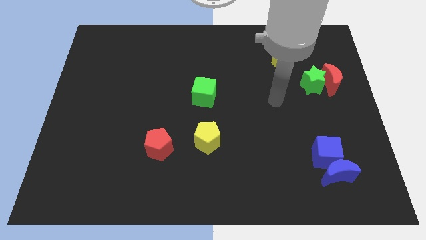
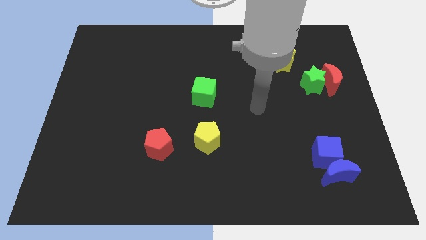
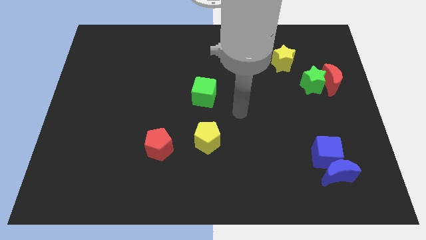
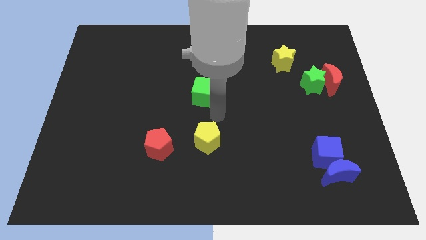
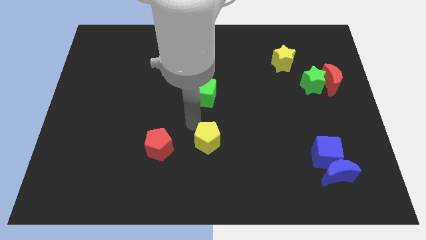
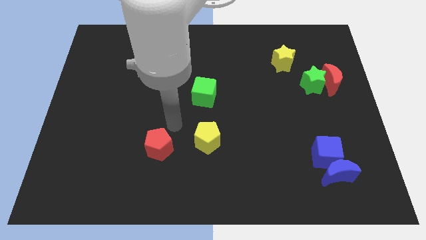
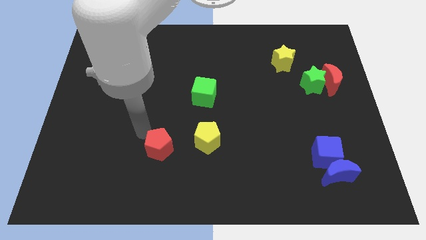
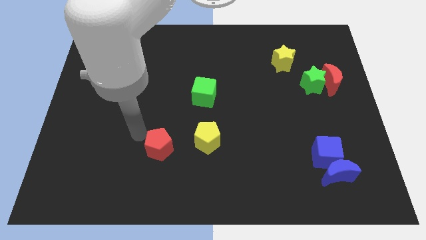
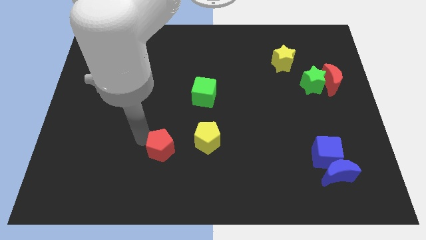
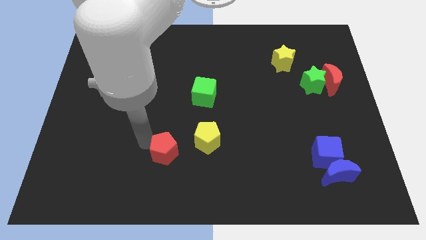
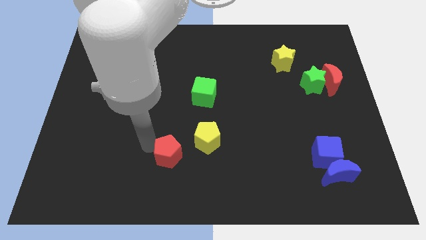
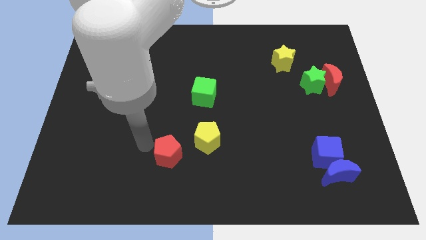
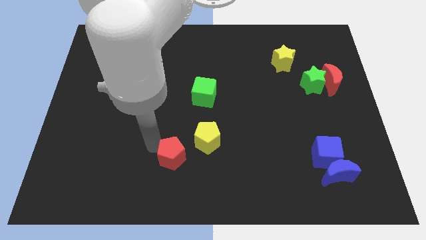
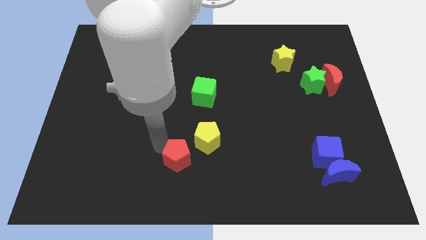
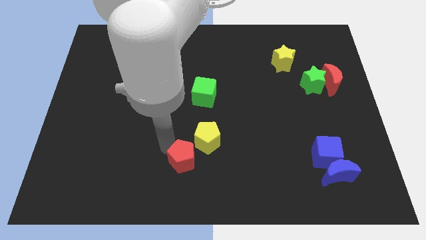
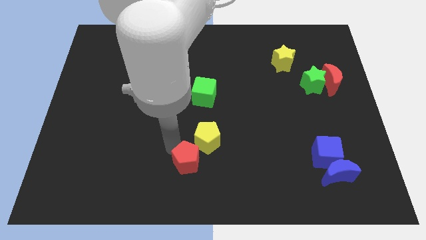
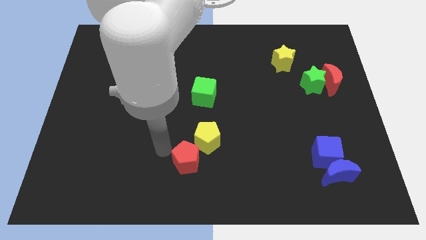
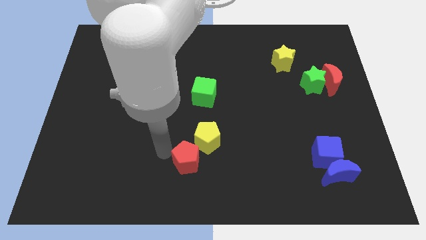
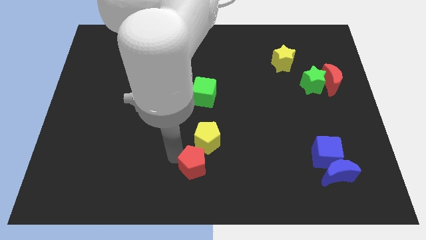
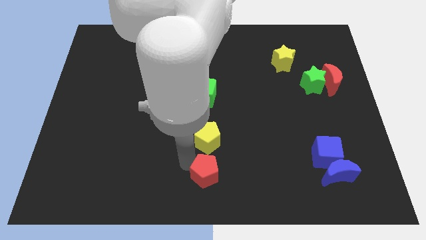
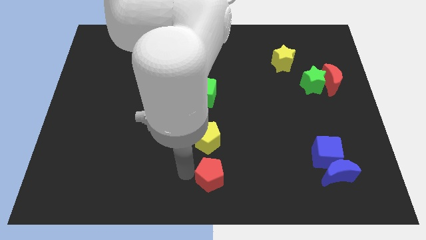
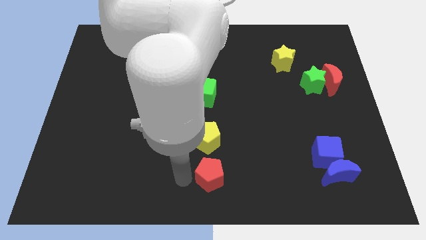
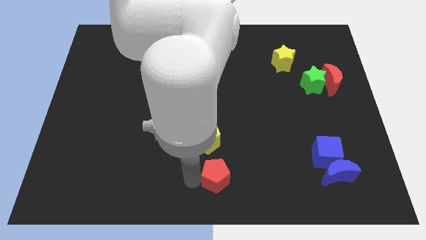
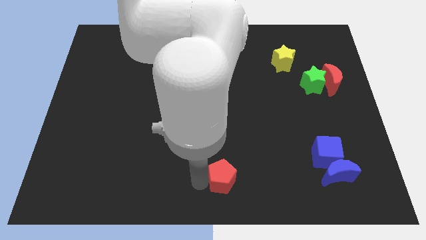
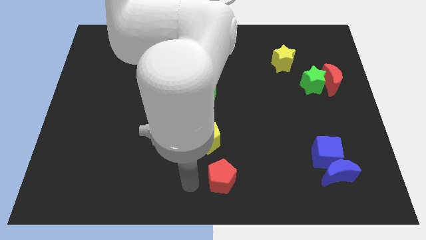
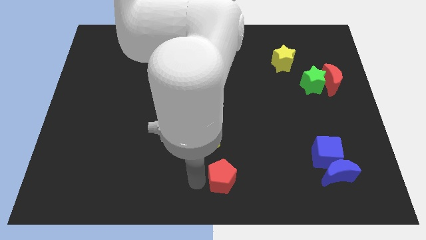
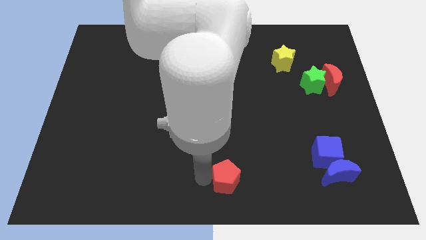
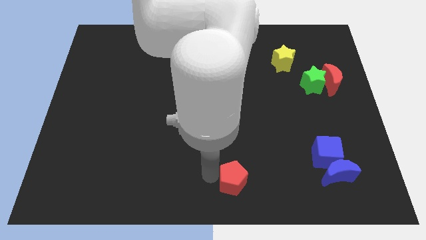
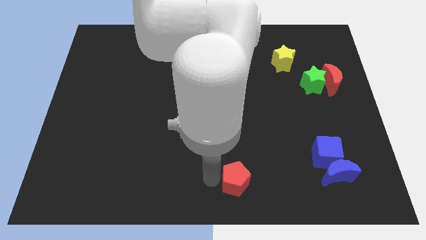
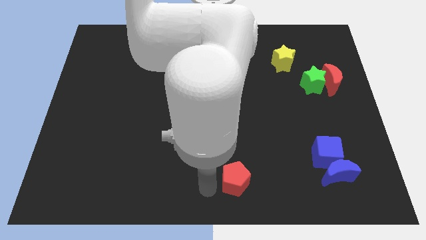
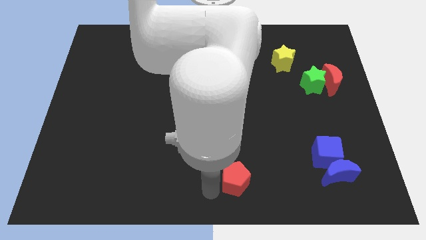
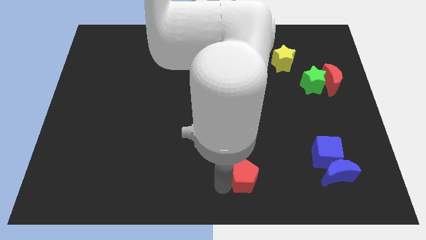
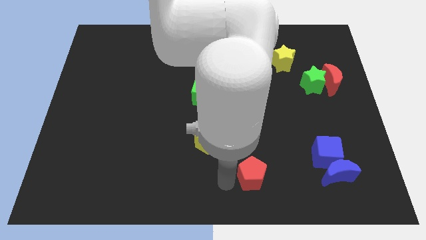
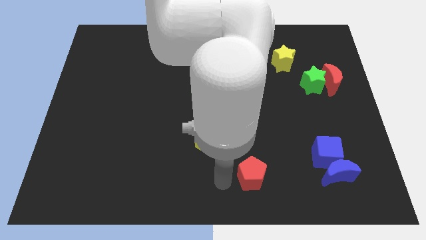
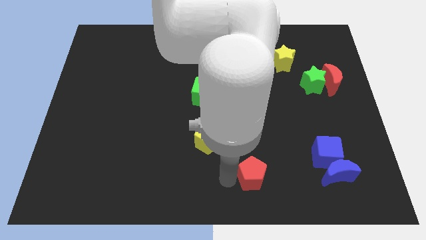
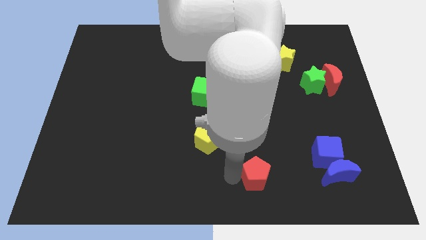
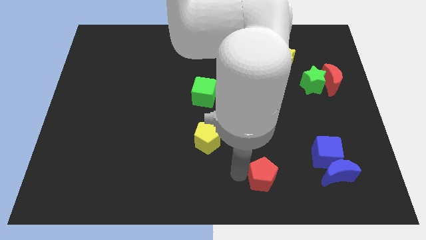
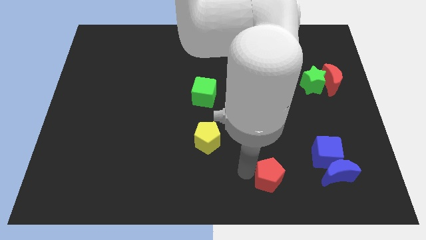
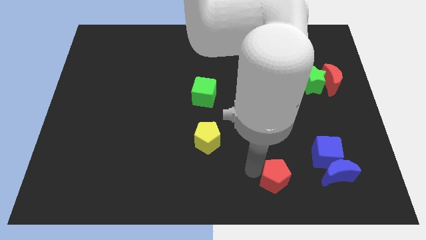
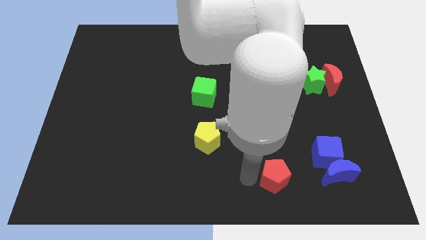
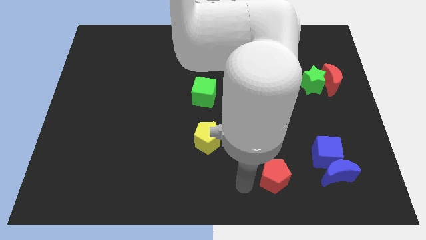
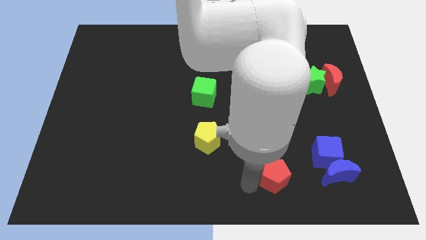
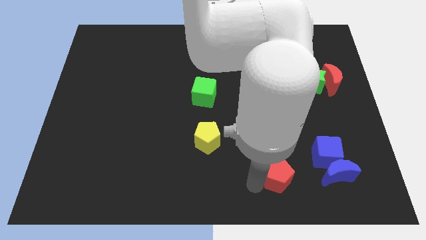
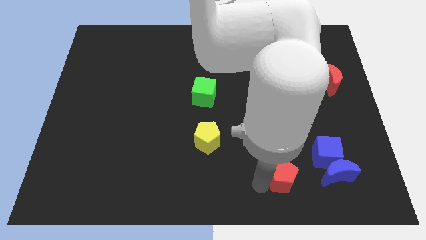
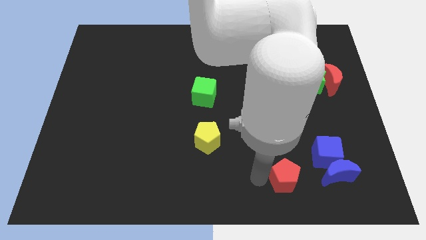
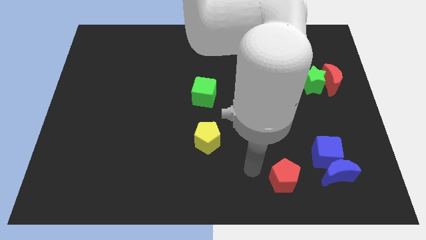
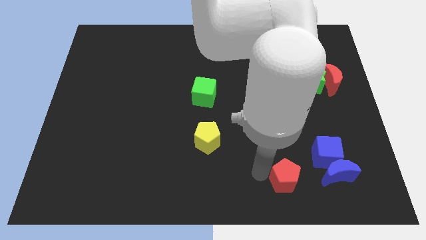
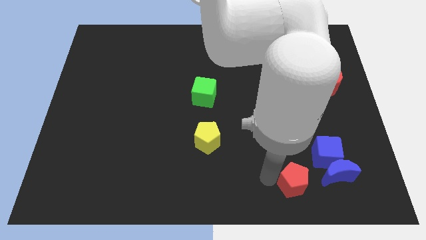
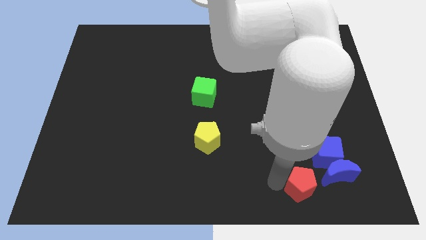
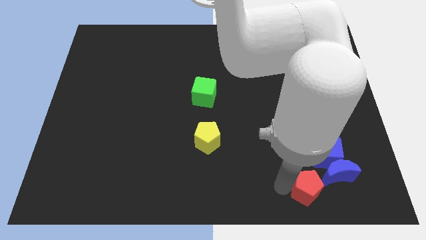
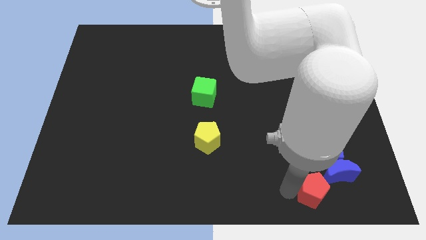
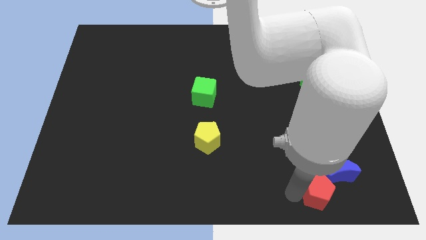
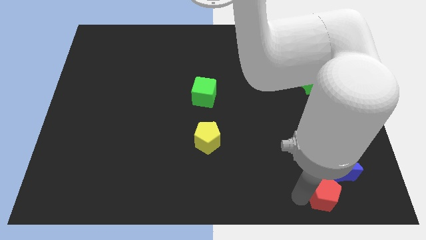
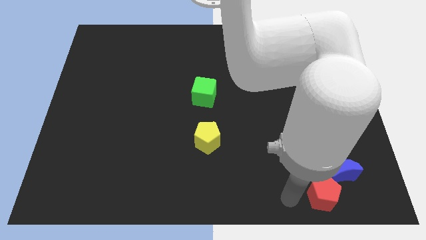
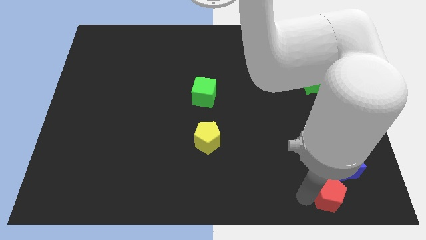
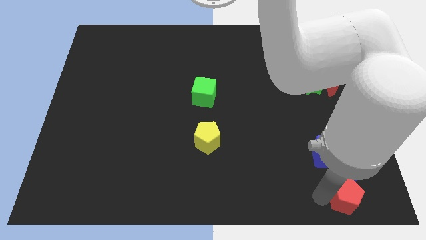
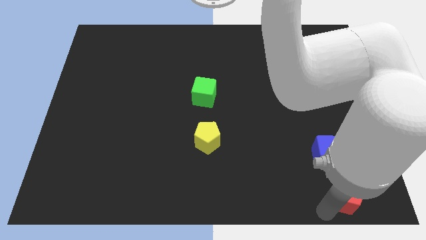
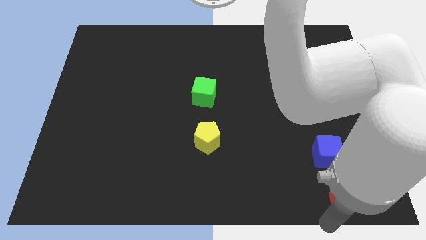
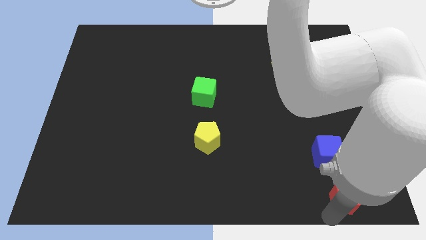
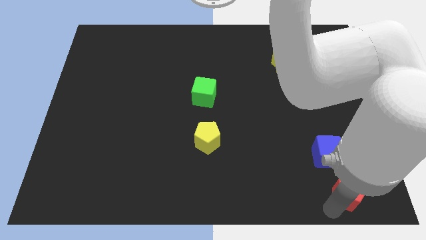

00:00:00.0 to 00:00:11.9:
slide the red pentagon diagonally down and to the right of the blue cube
